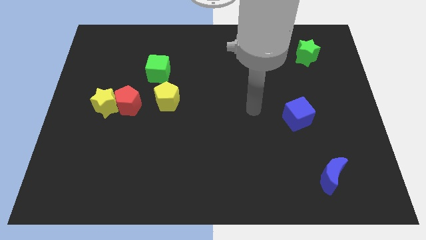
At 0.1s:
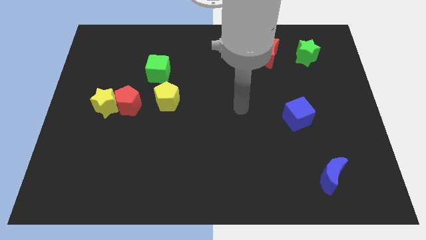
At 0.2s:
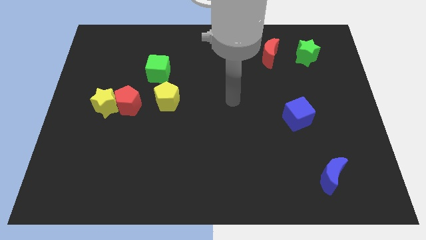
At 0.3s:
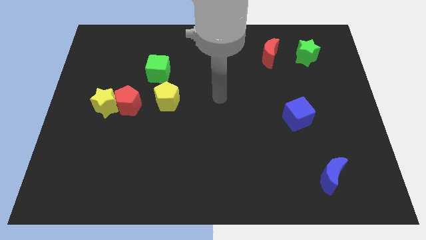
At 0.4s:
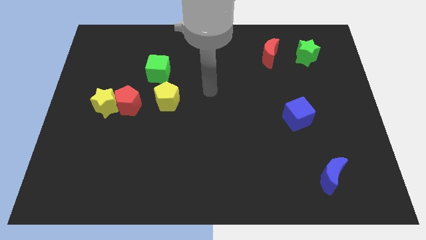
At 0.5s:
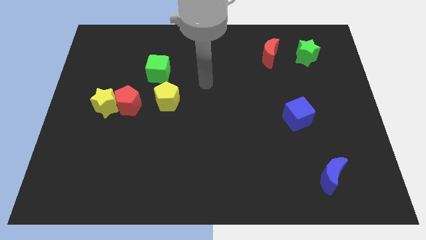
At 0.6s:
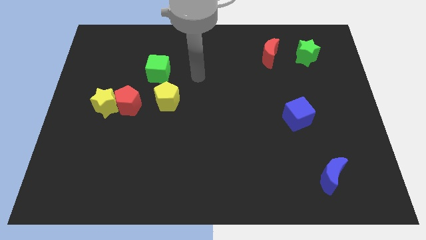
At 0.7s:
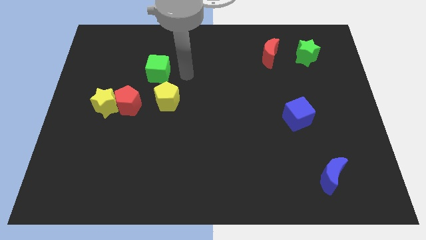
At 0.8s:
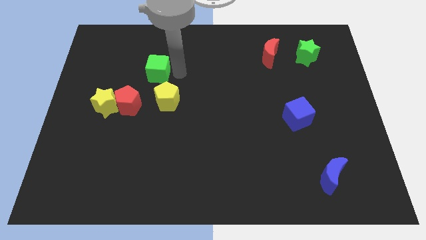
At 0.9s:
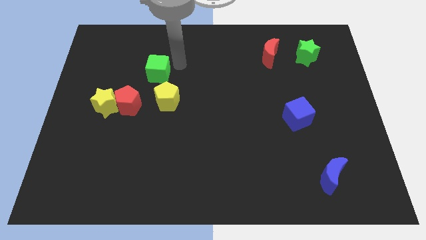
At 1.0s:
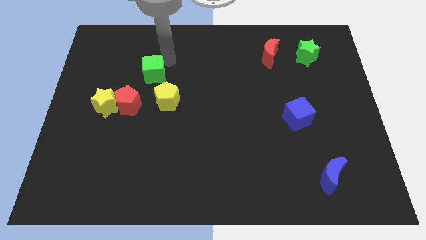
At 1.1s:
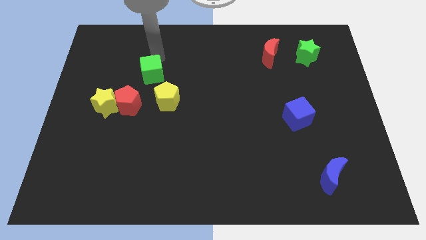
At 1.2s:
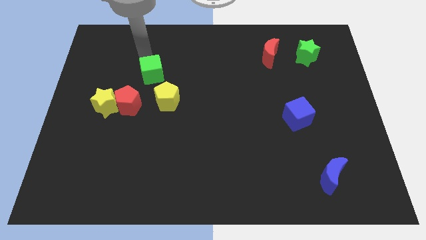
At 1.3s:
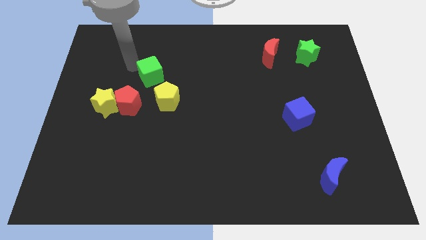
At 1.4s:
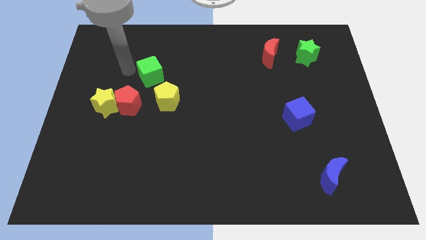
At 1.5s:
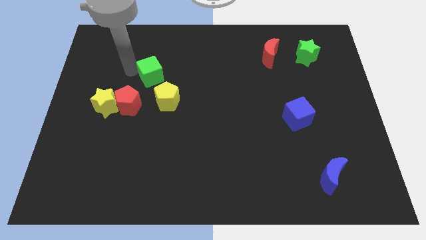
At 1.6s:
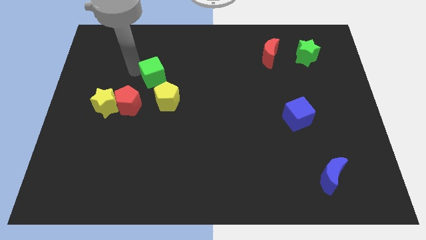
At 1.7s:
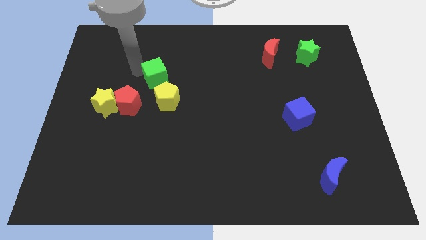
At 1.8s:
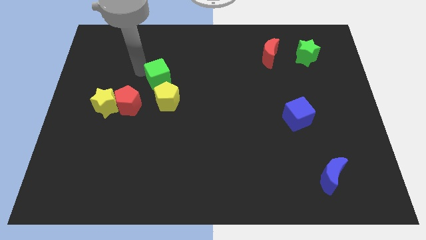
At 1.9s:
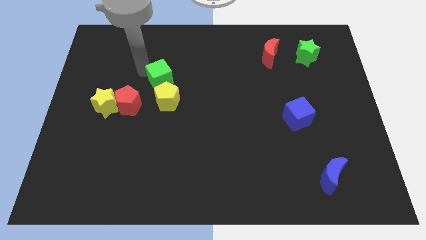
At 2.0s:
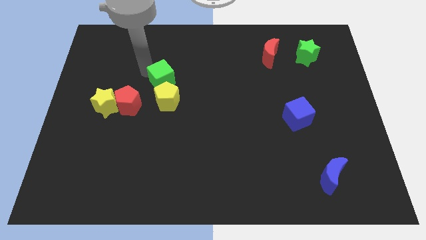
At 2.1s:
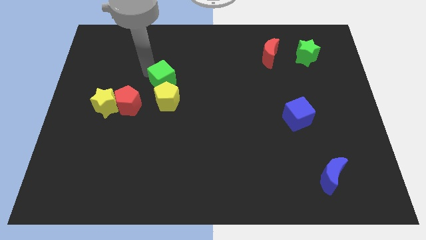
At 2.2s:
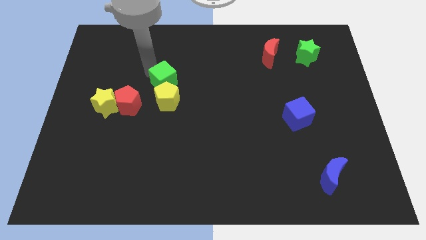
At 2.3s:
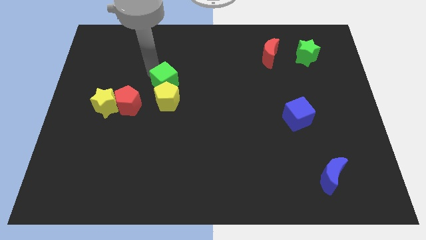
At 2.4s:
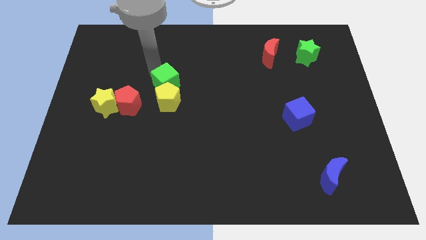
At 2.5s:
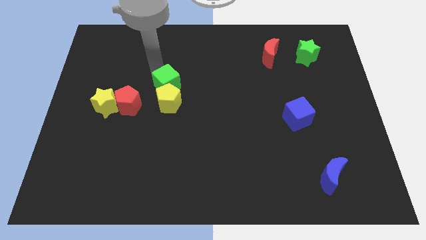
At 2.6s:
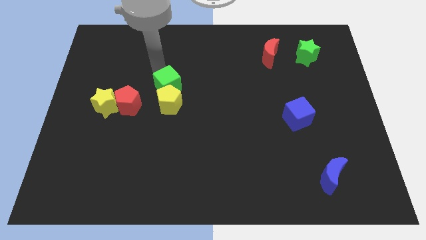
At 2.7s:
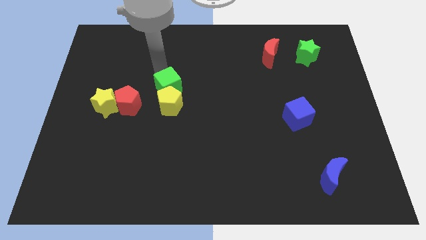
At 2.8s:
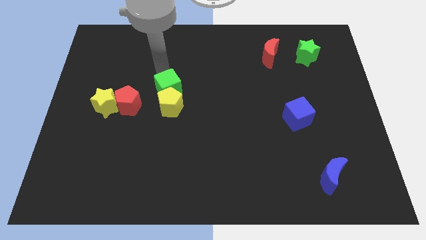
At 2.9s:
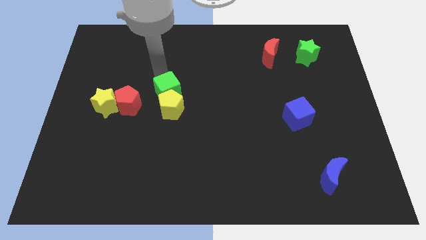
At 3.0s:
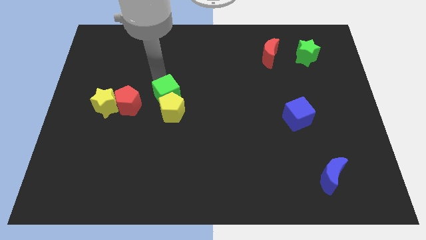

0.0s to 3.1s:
slightly slide the green cube down and to the right

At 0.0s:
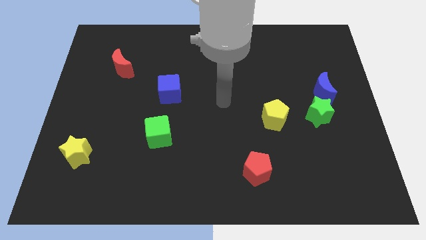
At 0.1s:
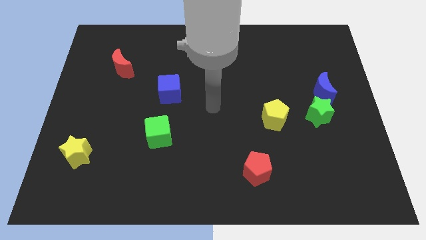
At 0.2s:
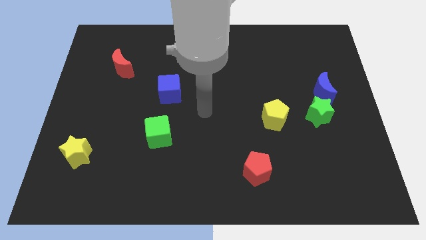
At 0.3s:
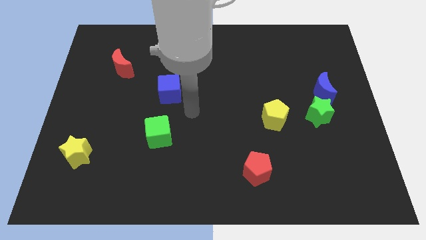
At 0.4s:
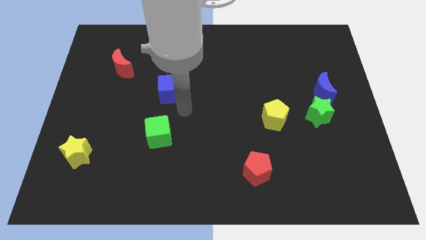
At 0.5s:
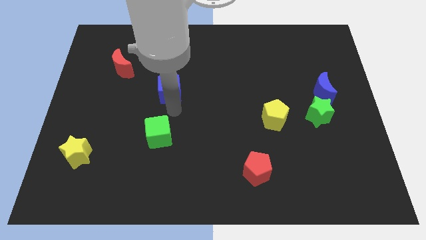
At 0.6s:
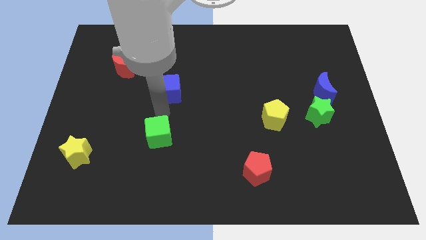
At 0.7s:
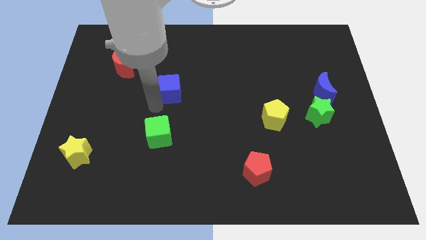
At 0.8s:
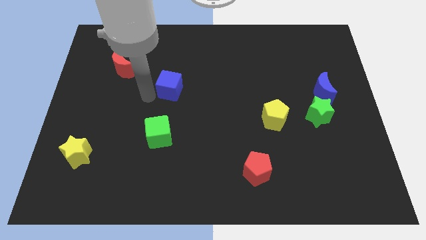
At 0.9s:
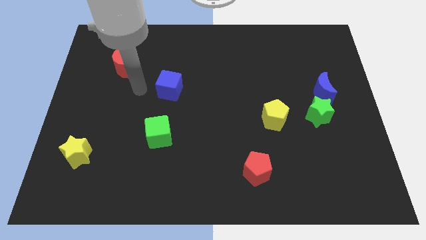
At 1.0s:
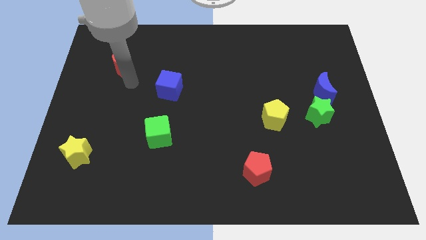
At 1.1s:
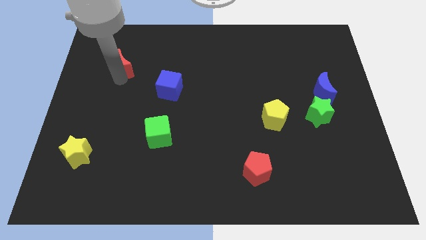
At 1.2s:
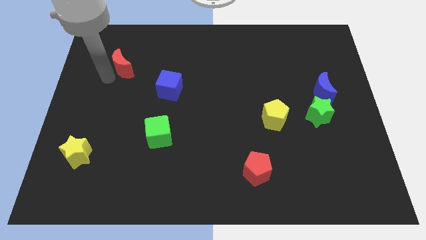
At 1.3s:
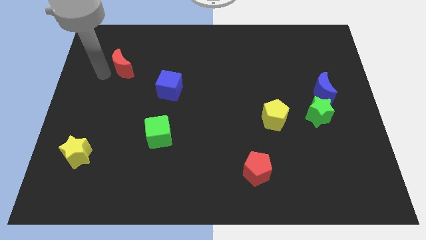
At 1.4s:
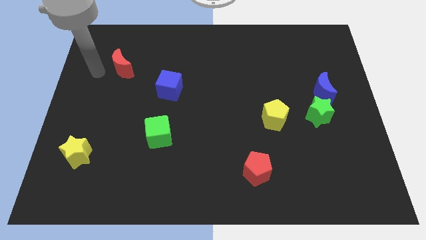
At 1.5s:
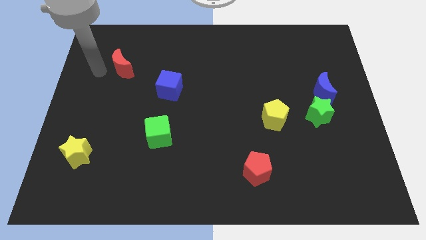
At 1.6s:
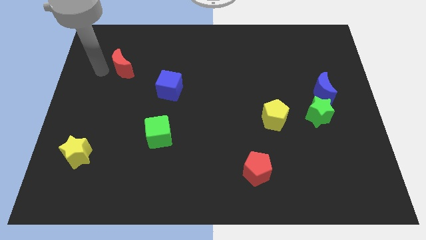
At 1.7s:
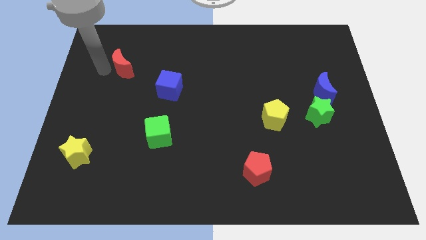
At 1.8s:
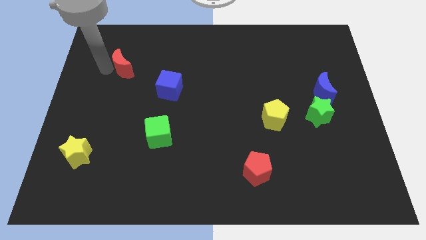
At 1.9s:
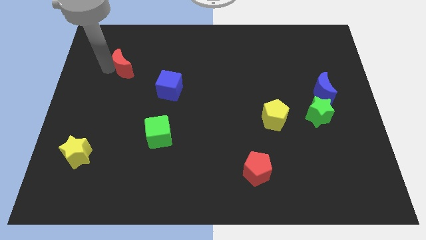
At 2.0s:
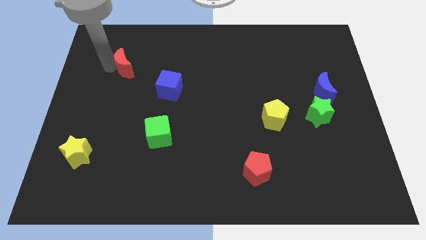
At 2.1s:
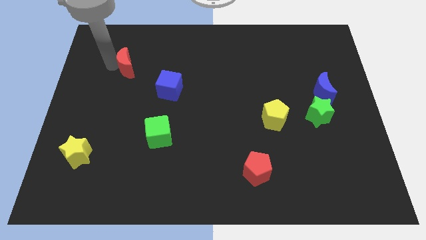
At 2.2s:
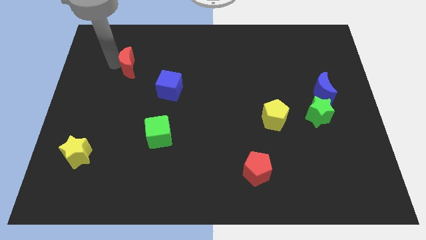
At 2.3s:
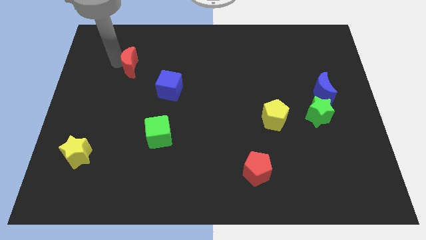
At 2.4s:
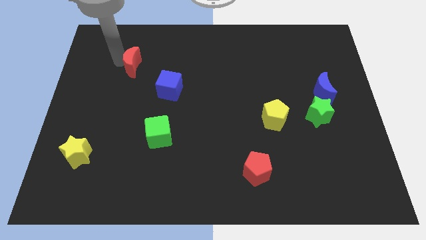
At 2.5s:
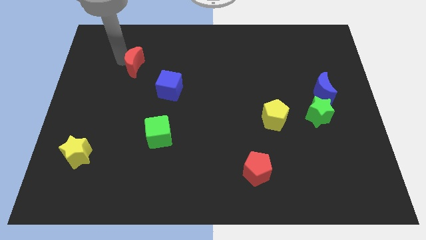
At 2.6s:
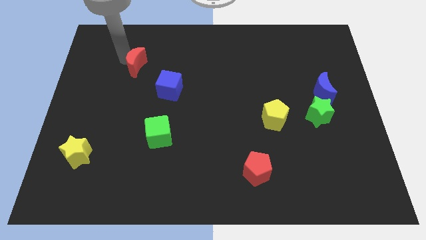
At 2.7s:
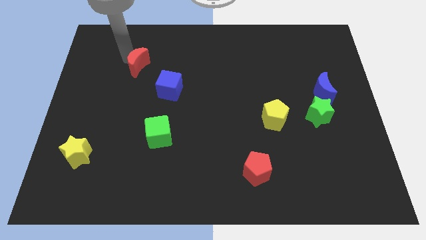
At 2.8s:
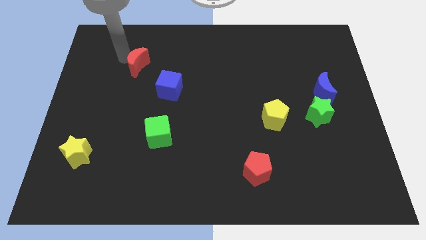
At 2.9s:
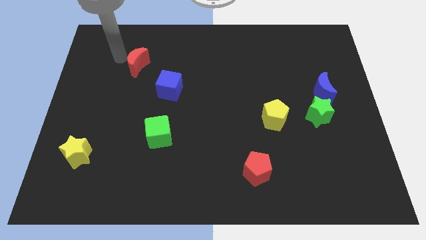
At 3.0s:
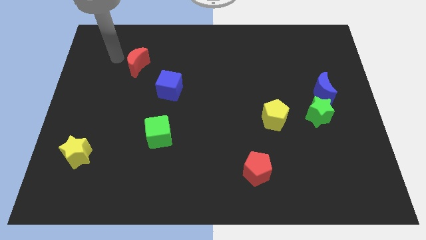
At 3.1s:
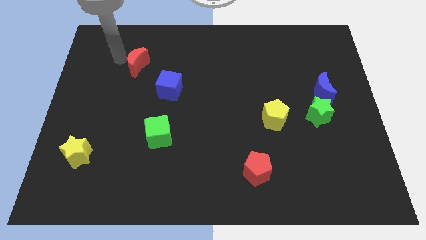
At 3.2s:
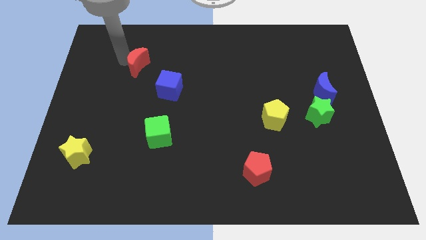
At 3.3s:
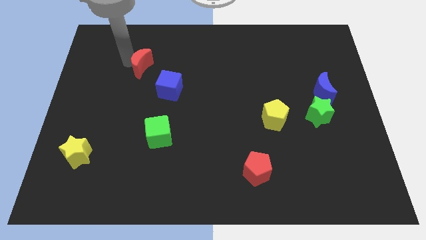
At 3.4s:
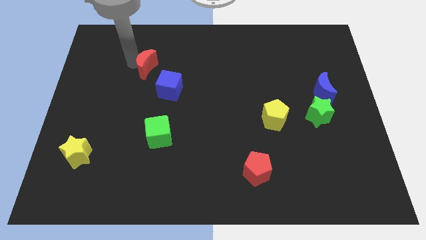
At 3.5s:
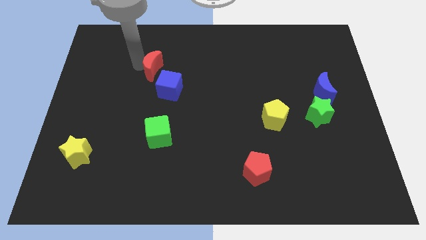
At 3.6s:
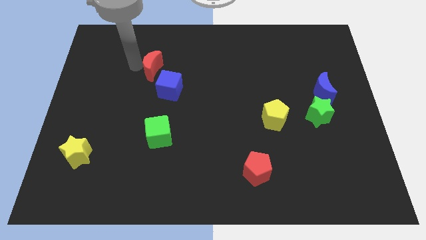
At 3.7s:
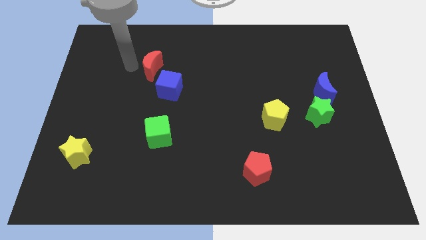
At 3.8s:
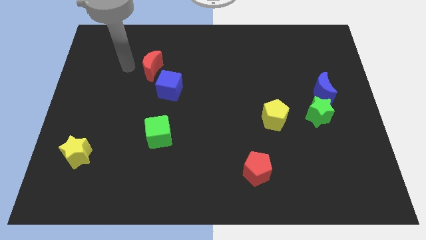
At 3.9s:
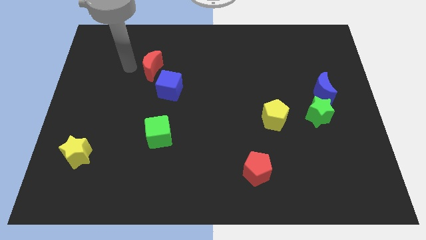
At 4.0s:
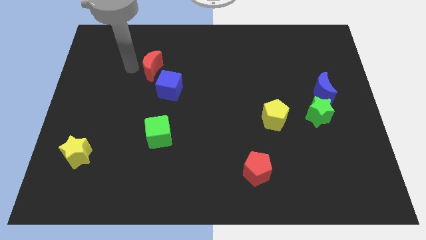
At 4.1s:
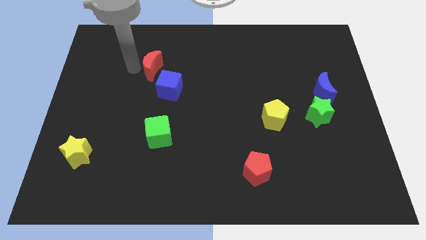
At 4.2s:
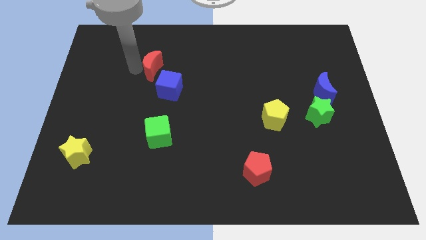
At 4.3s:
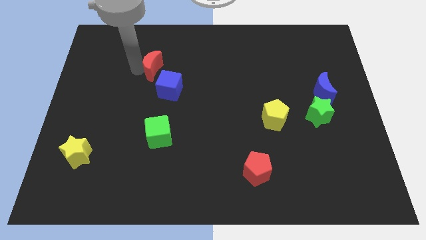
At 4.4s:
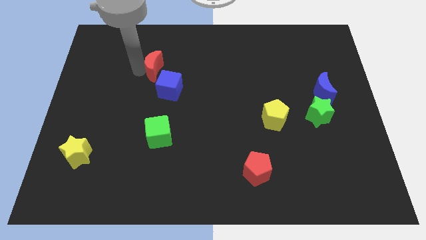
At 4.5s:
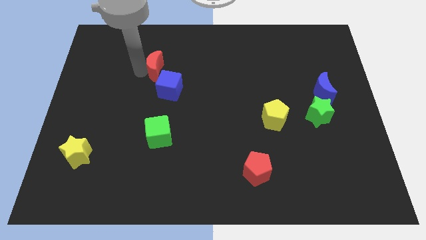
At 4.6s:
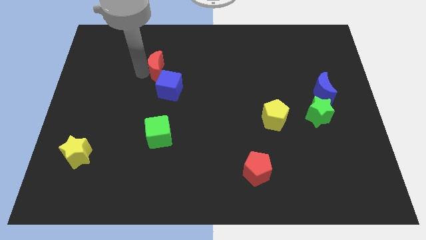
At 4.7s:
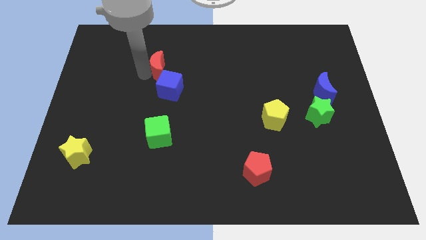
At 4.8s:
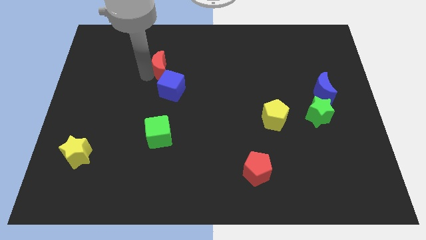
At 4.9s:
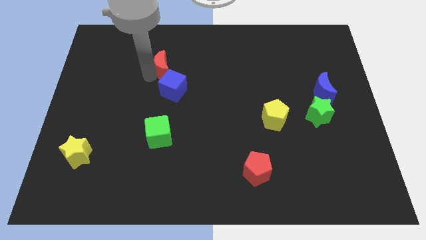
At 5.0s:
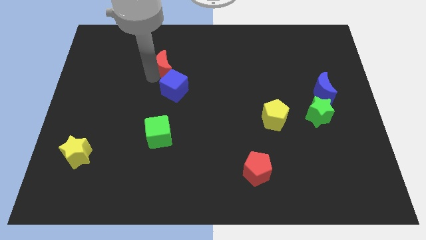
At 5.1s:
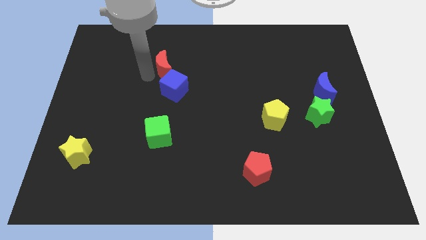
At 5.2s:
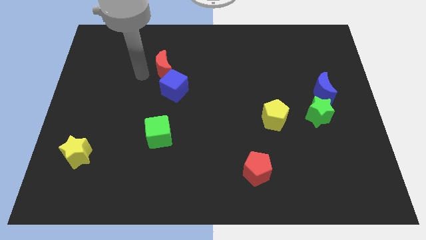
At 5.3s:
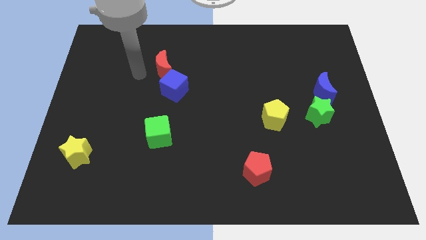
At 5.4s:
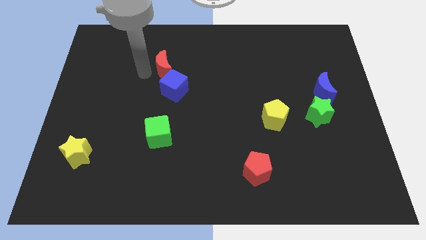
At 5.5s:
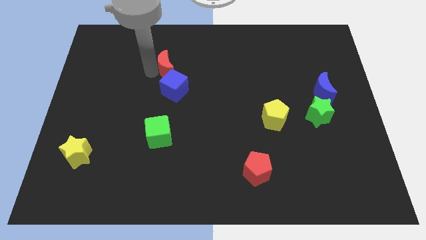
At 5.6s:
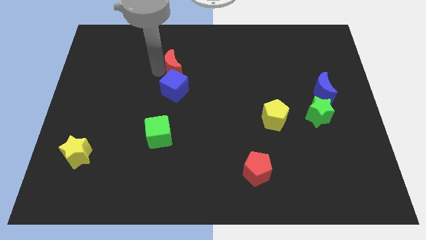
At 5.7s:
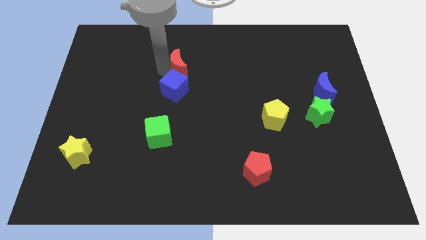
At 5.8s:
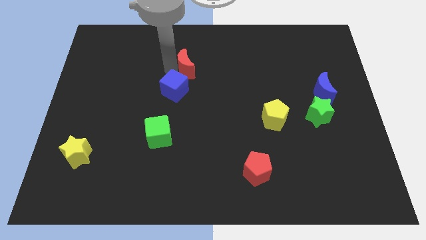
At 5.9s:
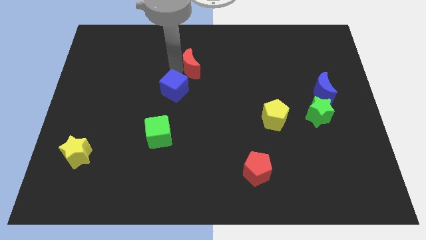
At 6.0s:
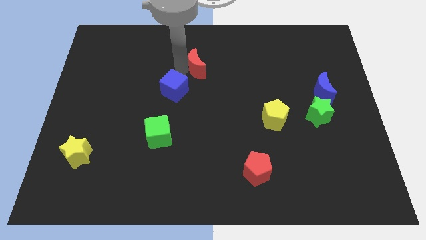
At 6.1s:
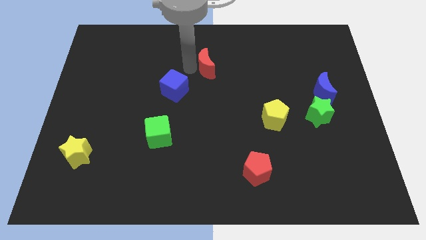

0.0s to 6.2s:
slide the red moon right
